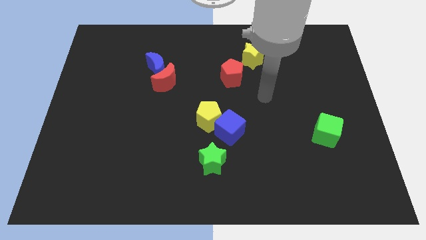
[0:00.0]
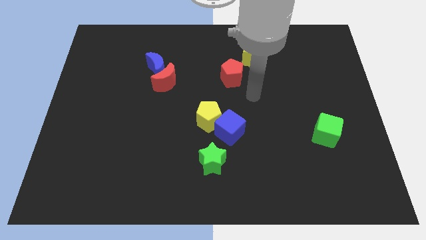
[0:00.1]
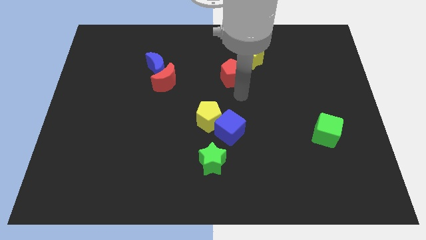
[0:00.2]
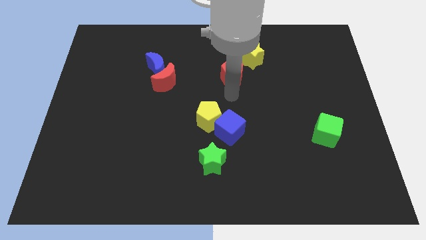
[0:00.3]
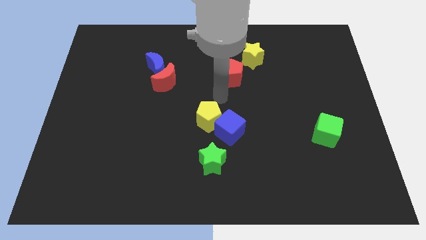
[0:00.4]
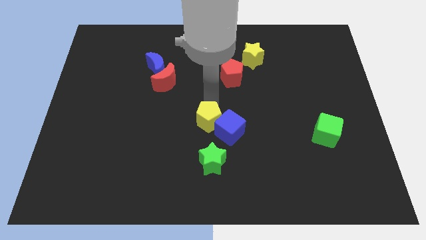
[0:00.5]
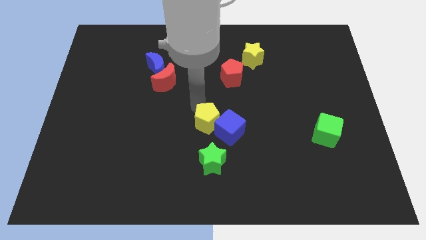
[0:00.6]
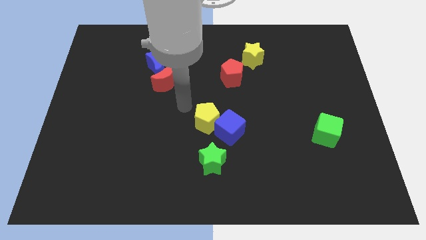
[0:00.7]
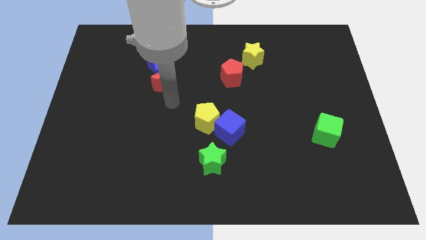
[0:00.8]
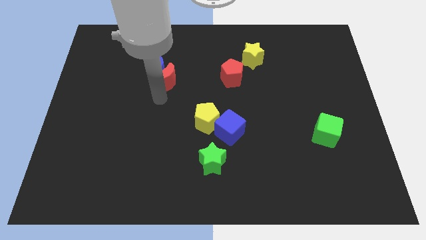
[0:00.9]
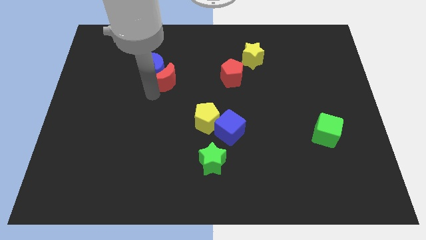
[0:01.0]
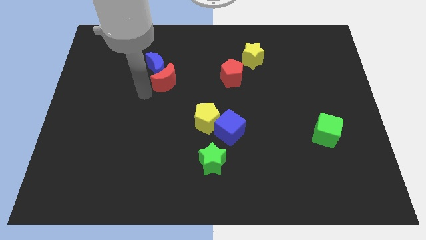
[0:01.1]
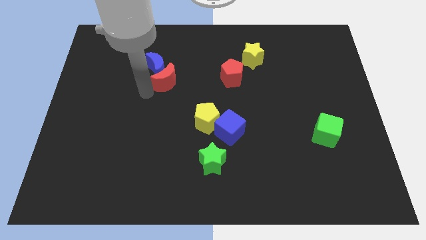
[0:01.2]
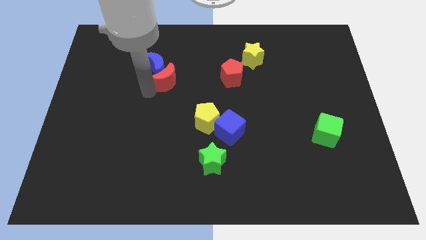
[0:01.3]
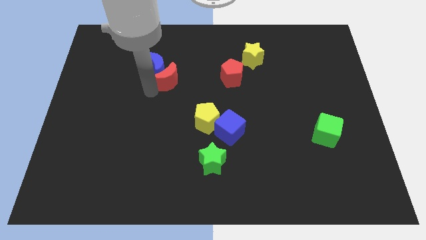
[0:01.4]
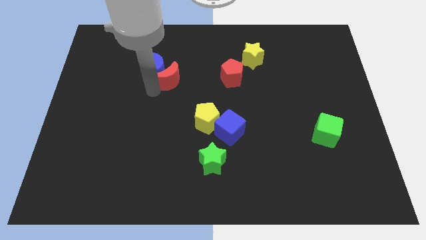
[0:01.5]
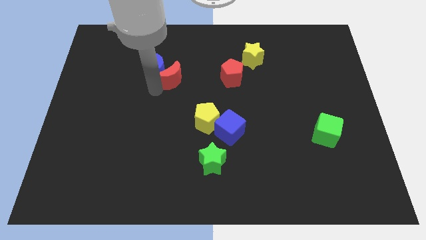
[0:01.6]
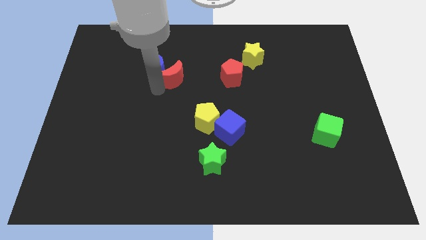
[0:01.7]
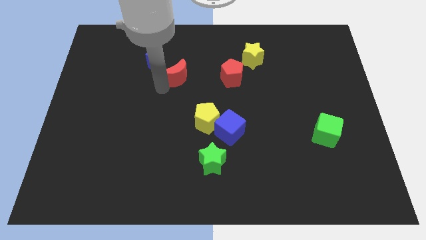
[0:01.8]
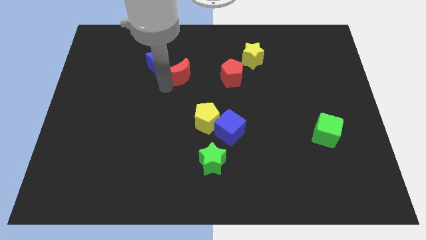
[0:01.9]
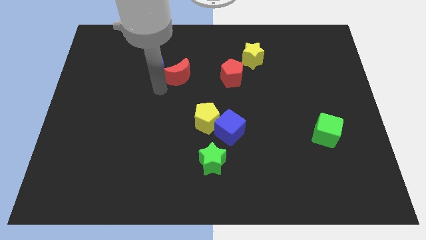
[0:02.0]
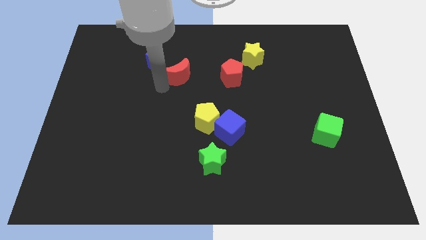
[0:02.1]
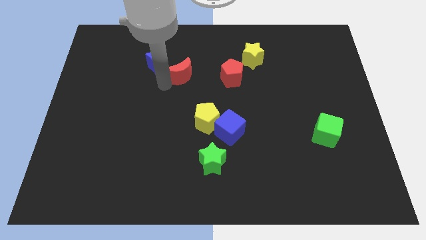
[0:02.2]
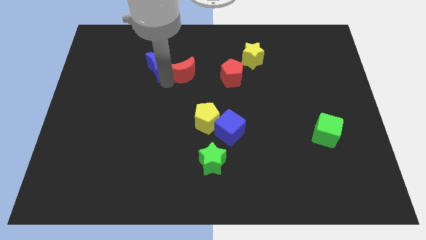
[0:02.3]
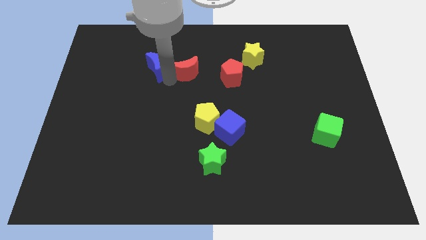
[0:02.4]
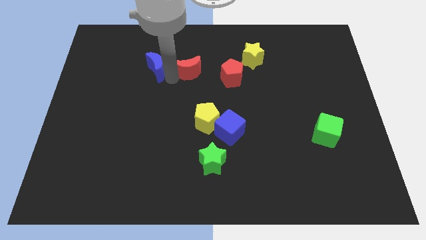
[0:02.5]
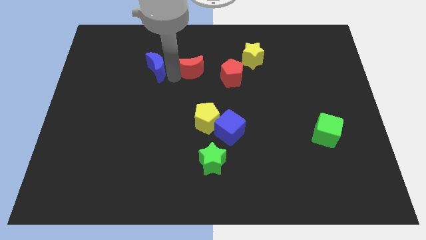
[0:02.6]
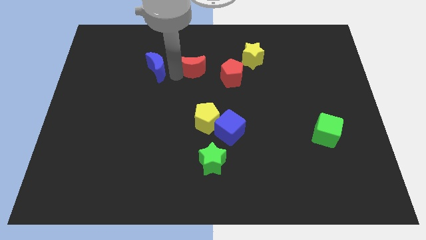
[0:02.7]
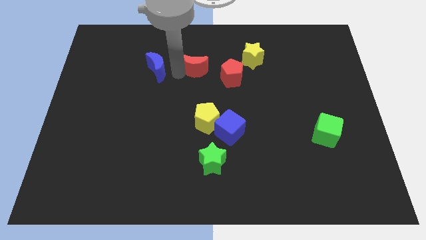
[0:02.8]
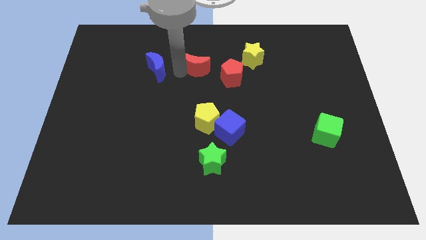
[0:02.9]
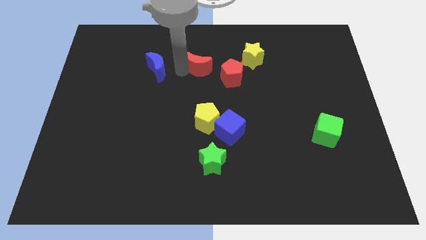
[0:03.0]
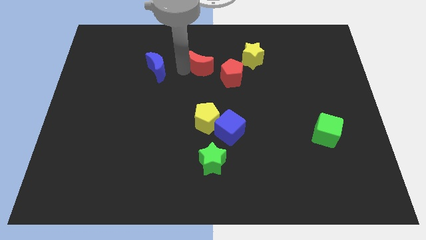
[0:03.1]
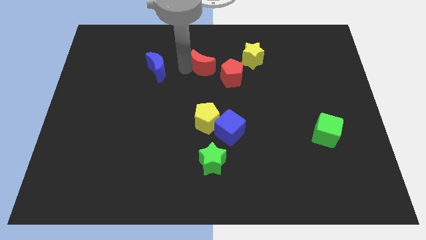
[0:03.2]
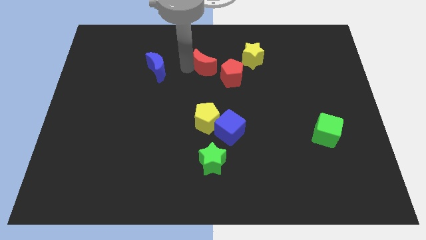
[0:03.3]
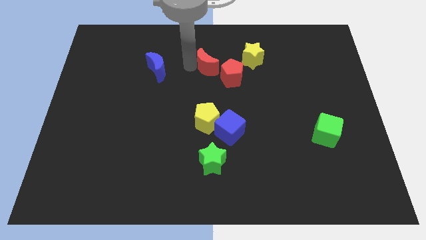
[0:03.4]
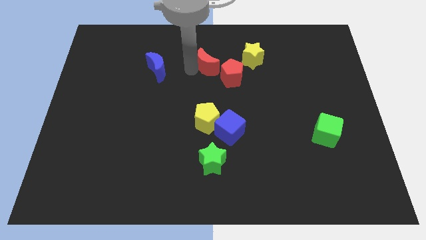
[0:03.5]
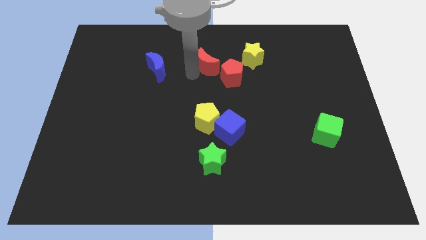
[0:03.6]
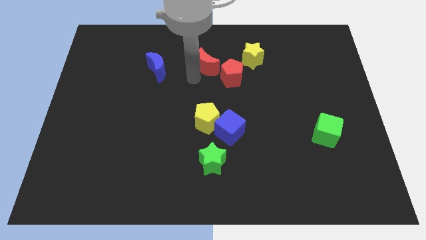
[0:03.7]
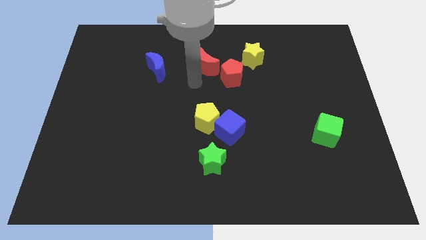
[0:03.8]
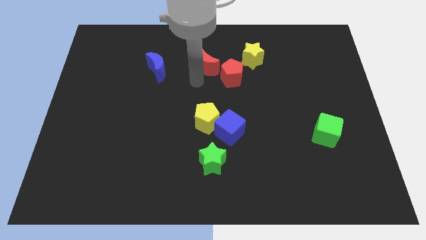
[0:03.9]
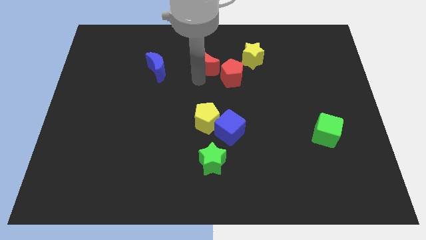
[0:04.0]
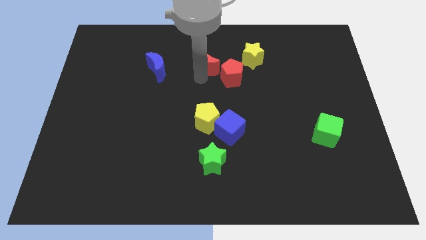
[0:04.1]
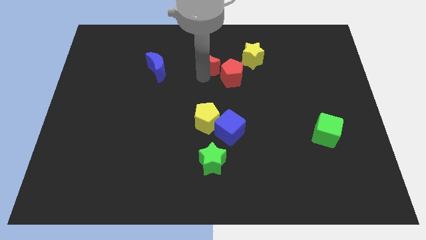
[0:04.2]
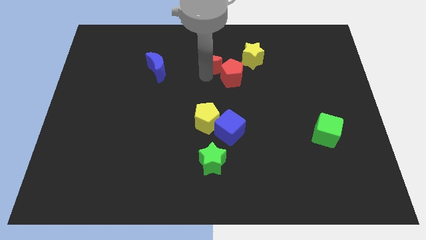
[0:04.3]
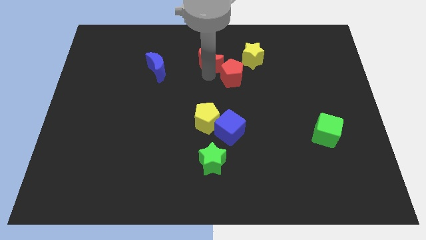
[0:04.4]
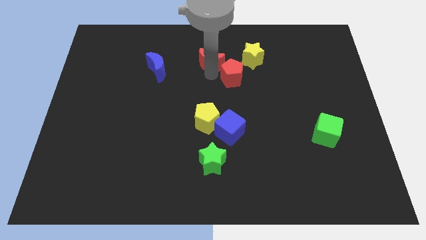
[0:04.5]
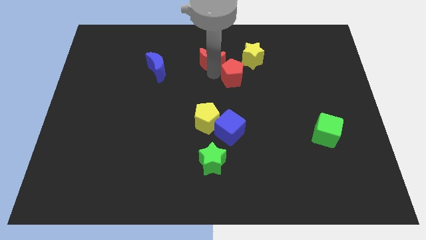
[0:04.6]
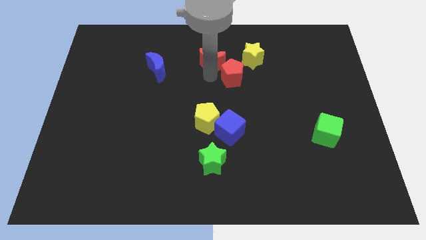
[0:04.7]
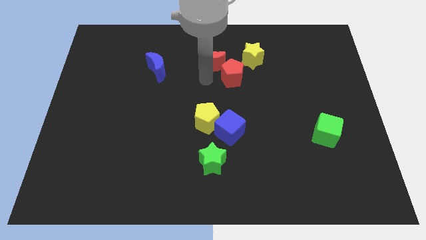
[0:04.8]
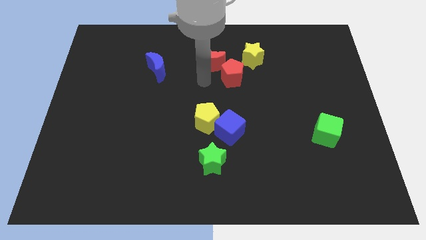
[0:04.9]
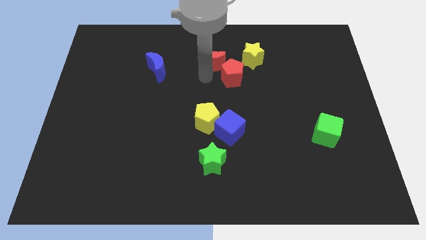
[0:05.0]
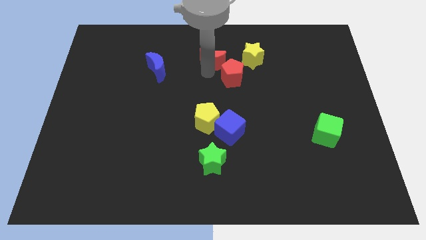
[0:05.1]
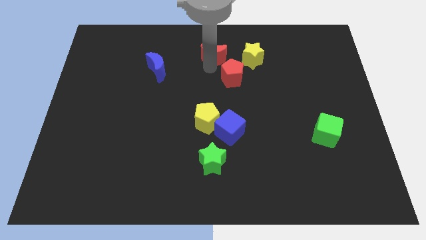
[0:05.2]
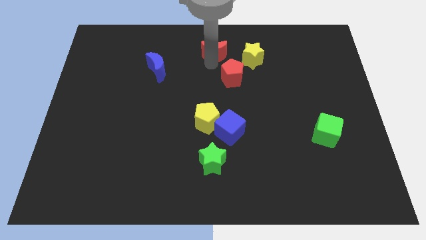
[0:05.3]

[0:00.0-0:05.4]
put the red moon to the towards your base
